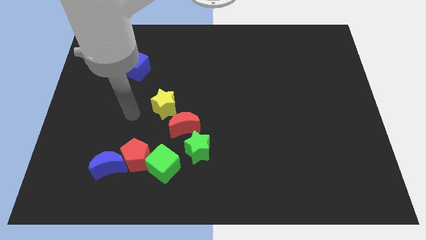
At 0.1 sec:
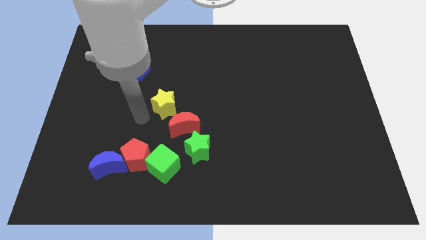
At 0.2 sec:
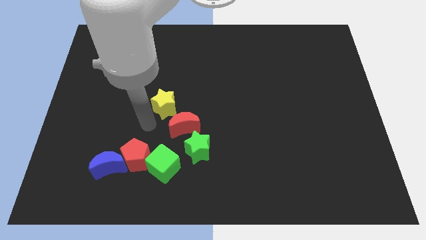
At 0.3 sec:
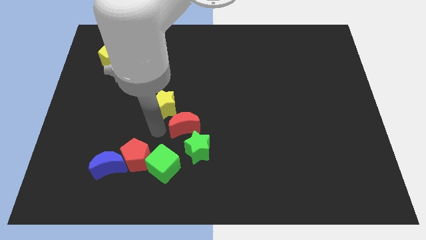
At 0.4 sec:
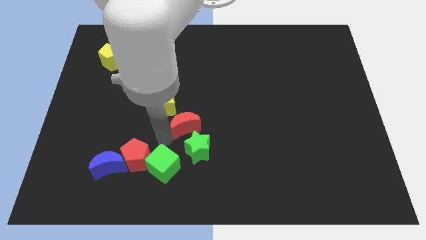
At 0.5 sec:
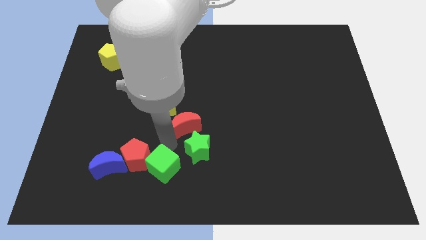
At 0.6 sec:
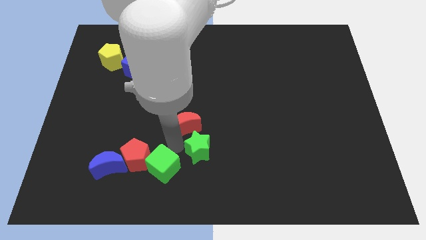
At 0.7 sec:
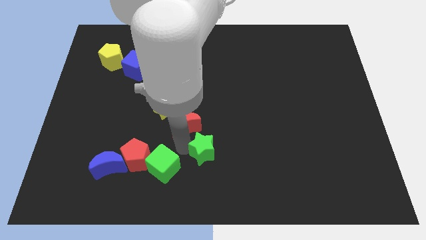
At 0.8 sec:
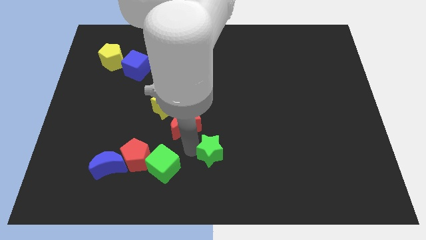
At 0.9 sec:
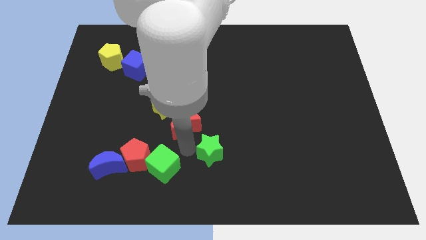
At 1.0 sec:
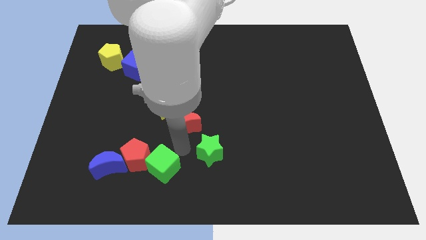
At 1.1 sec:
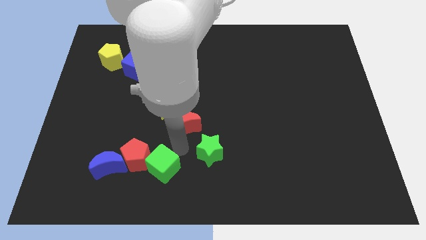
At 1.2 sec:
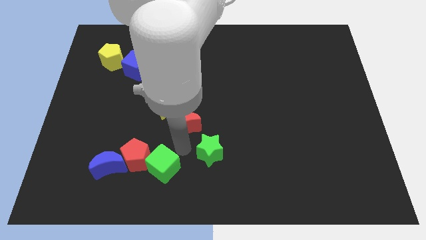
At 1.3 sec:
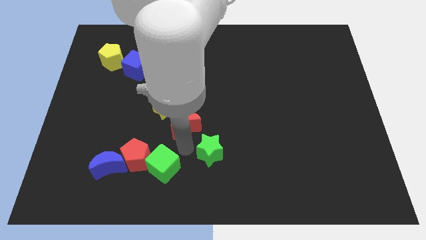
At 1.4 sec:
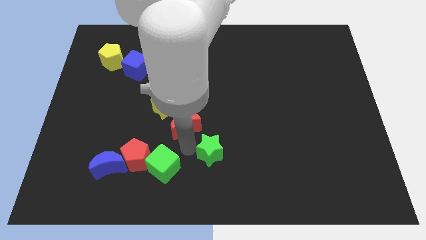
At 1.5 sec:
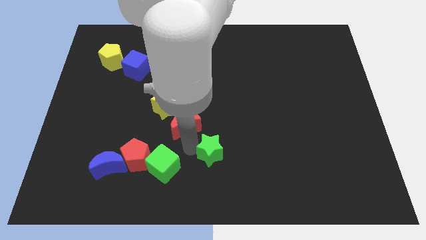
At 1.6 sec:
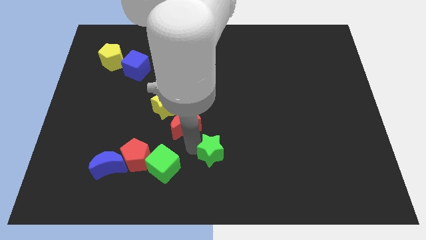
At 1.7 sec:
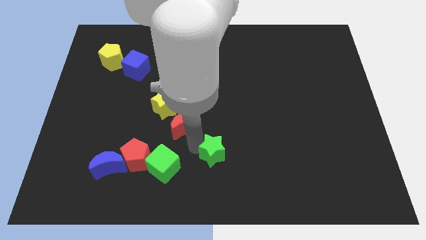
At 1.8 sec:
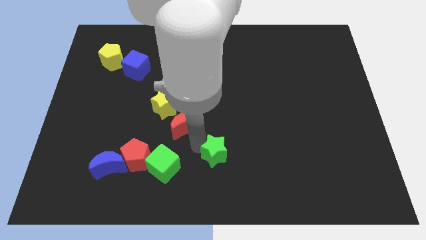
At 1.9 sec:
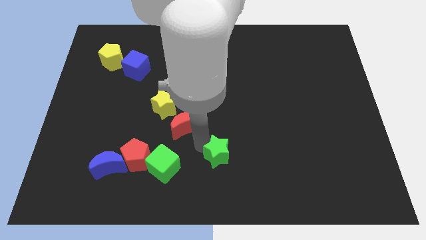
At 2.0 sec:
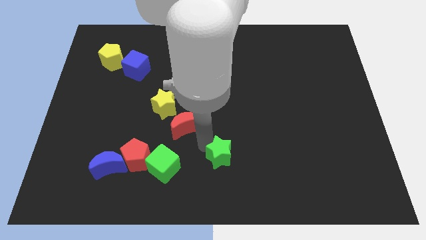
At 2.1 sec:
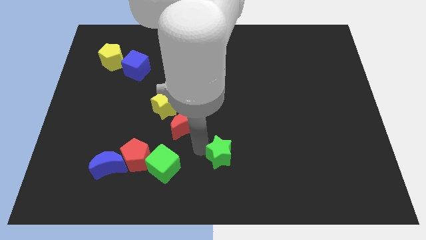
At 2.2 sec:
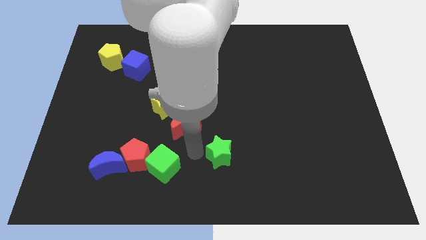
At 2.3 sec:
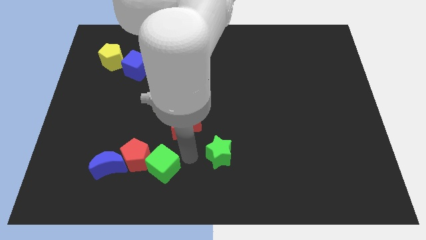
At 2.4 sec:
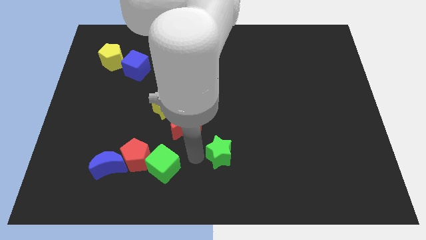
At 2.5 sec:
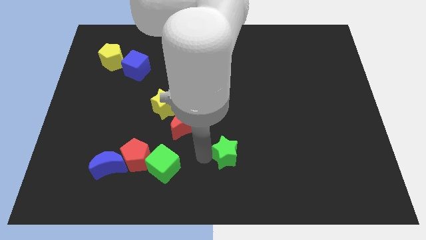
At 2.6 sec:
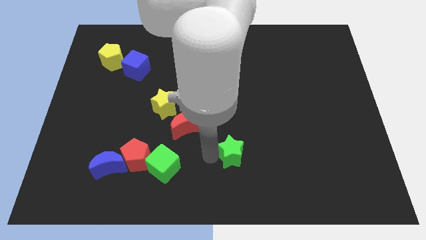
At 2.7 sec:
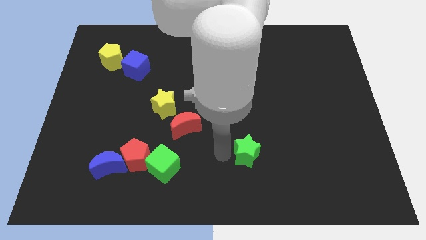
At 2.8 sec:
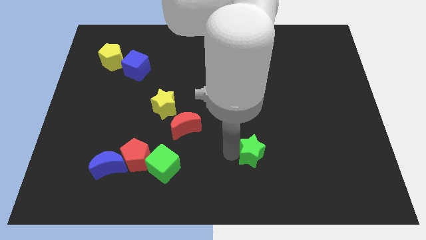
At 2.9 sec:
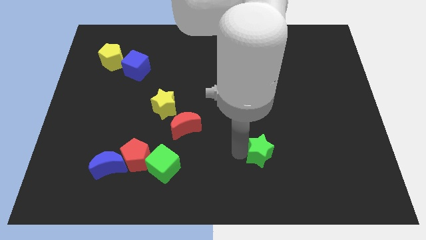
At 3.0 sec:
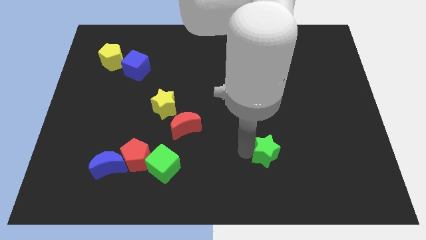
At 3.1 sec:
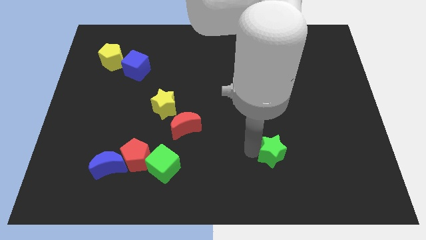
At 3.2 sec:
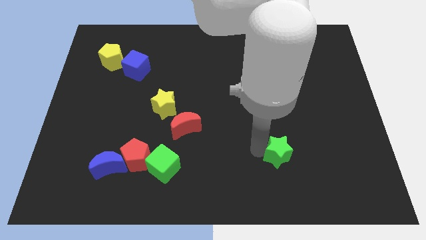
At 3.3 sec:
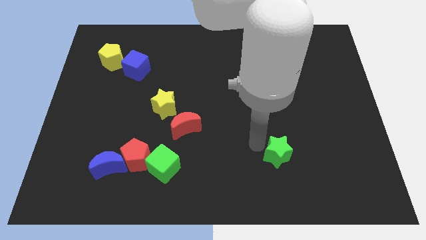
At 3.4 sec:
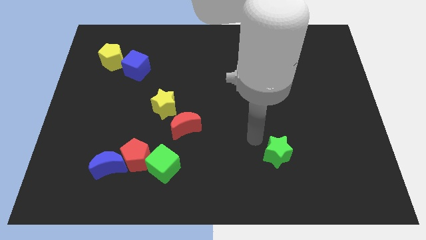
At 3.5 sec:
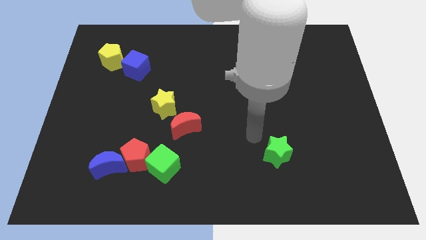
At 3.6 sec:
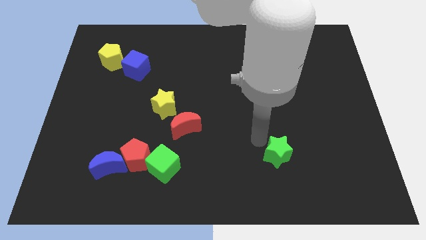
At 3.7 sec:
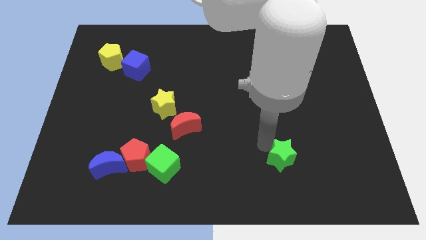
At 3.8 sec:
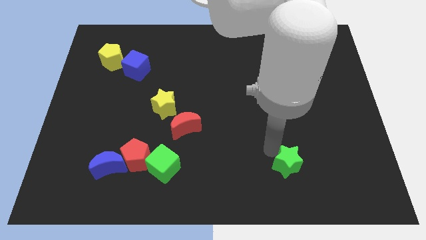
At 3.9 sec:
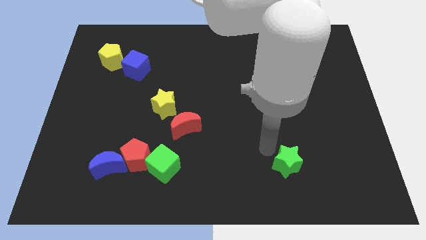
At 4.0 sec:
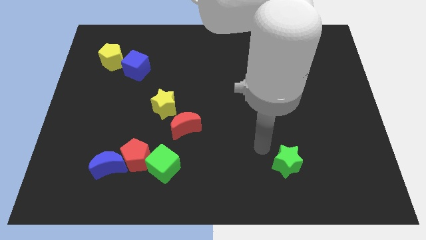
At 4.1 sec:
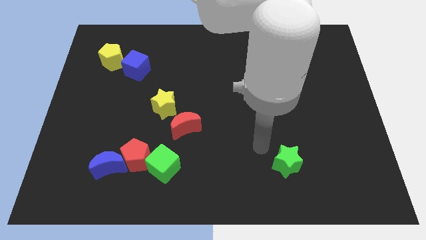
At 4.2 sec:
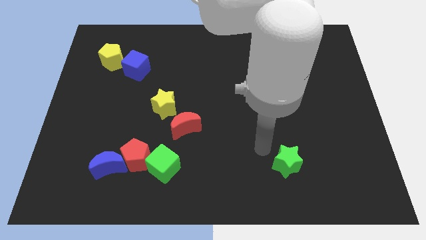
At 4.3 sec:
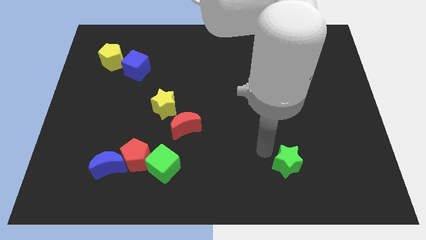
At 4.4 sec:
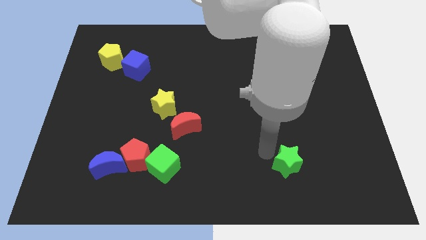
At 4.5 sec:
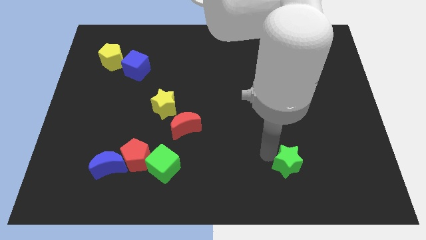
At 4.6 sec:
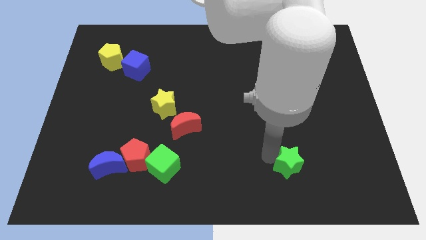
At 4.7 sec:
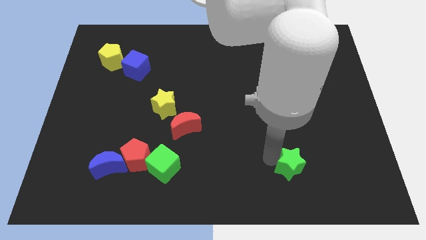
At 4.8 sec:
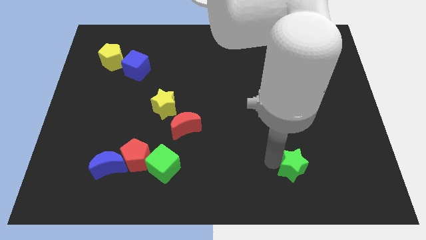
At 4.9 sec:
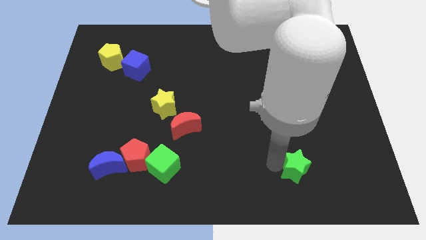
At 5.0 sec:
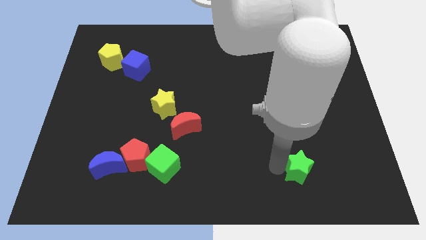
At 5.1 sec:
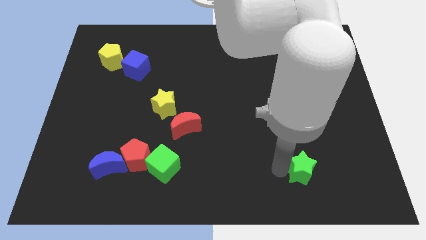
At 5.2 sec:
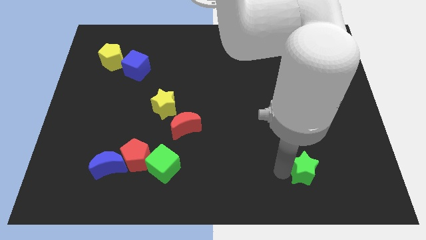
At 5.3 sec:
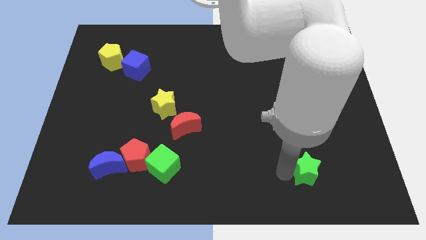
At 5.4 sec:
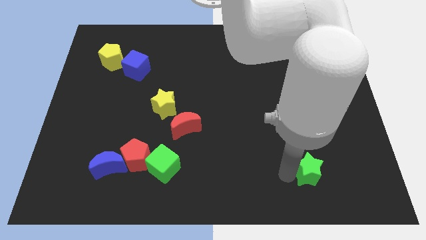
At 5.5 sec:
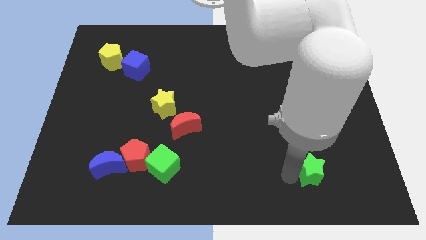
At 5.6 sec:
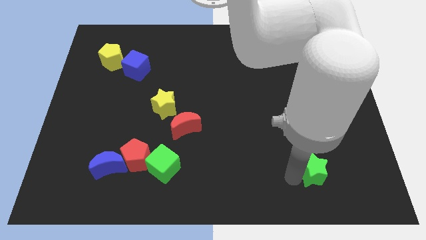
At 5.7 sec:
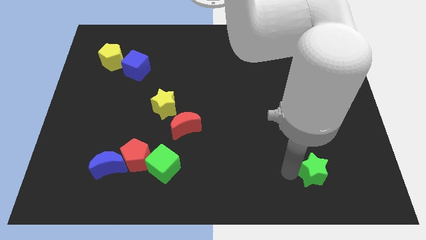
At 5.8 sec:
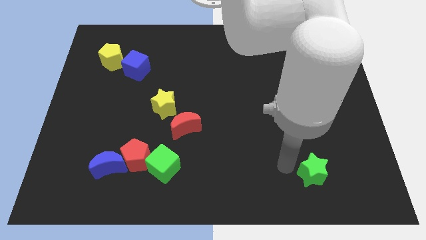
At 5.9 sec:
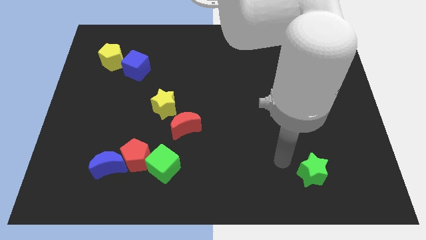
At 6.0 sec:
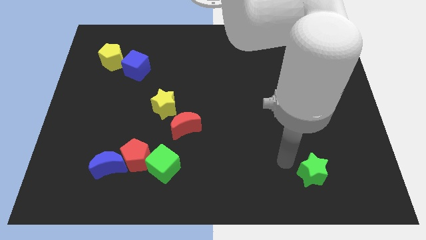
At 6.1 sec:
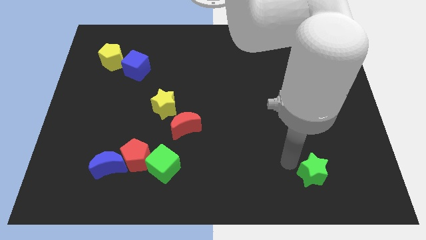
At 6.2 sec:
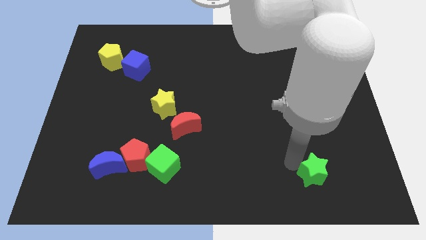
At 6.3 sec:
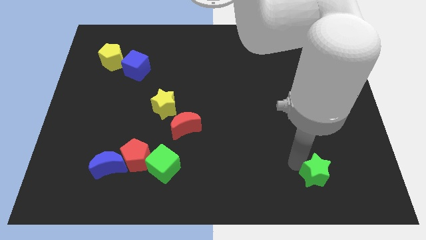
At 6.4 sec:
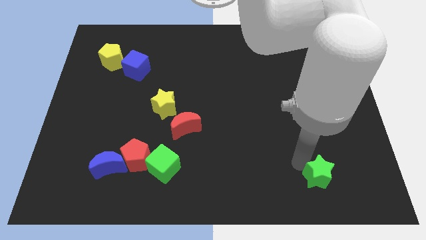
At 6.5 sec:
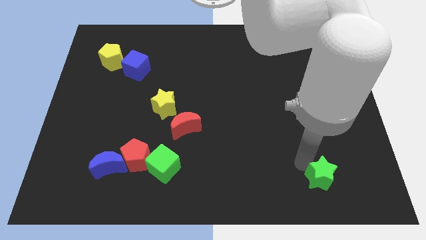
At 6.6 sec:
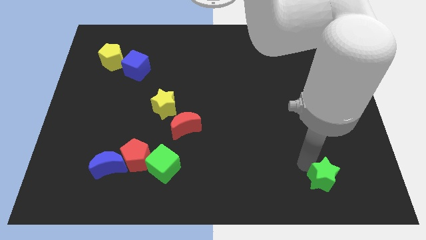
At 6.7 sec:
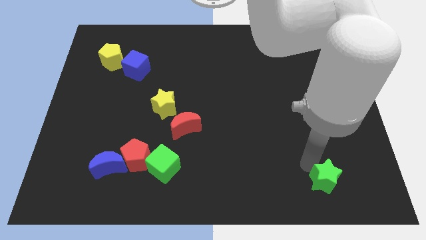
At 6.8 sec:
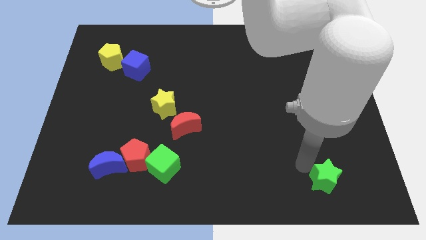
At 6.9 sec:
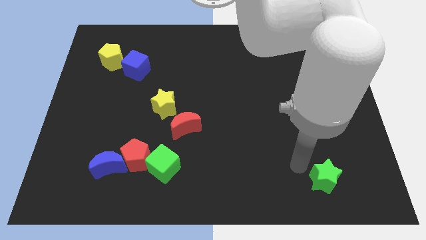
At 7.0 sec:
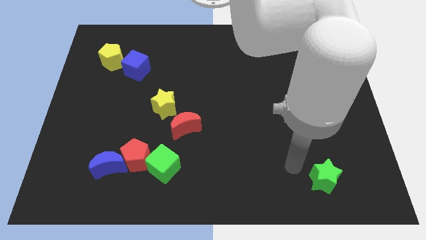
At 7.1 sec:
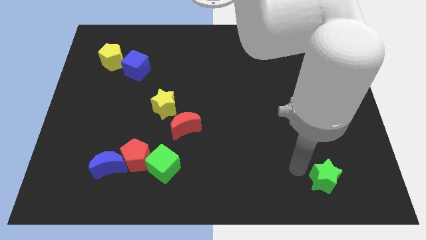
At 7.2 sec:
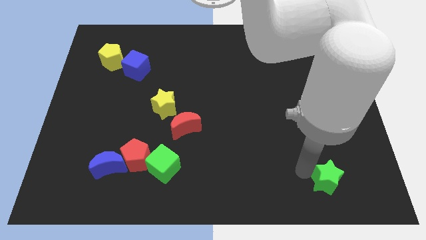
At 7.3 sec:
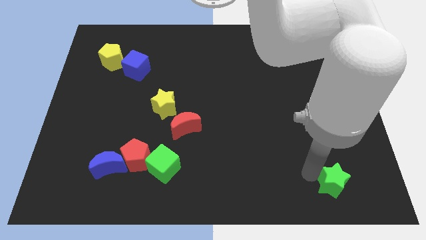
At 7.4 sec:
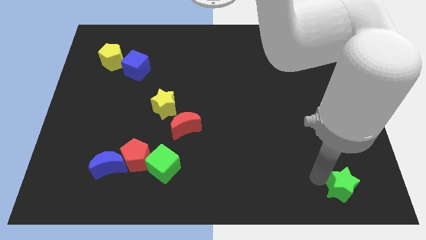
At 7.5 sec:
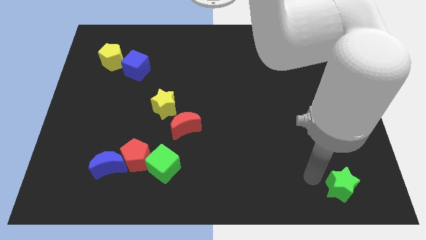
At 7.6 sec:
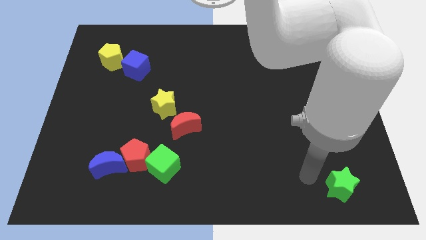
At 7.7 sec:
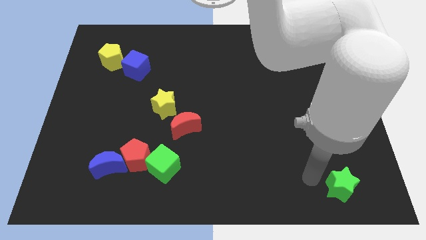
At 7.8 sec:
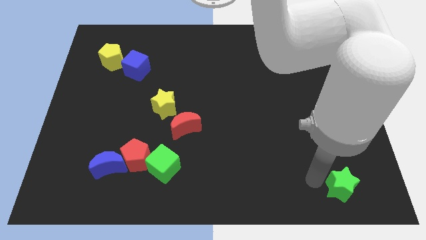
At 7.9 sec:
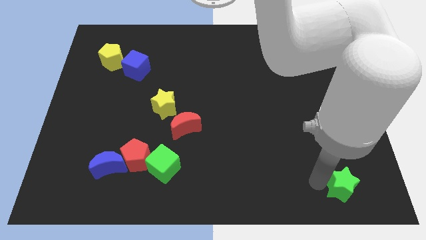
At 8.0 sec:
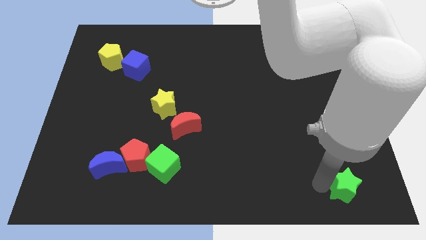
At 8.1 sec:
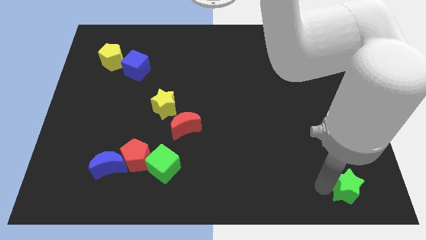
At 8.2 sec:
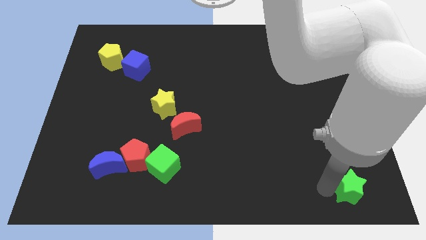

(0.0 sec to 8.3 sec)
move the green star to the bottom right
